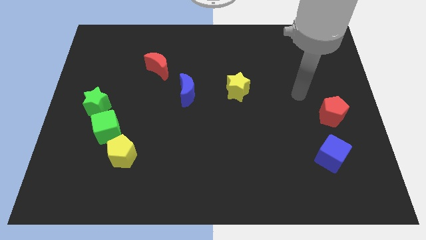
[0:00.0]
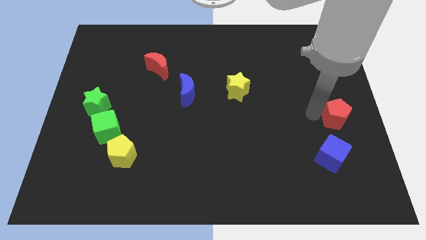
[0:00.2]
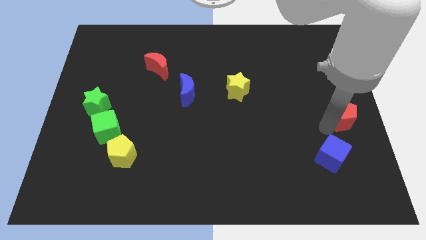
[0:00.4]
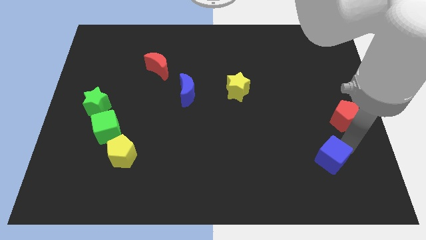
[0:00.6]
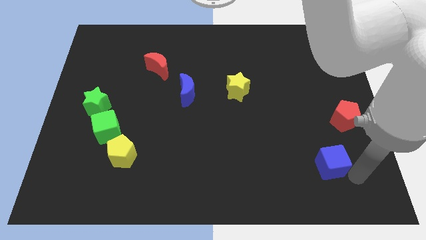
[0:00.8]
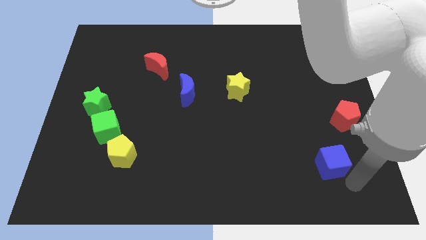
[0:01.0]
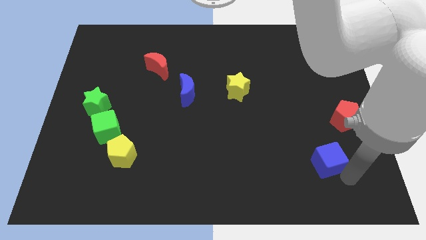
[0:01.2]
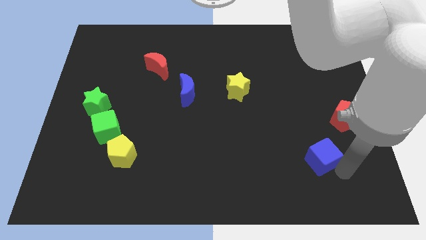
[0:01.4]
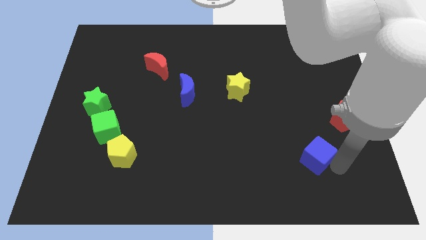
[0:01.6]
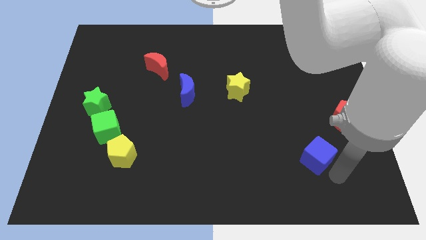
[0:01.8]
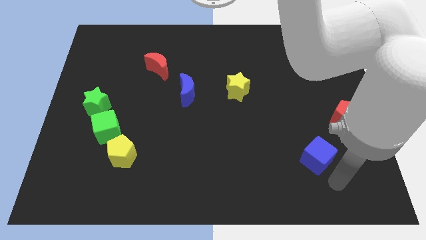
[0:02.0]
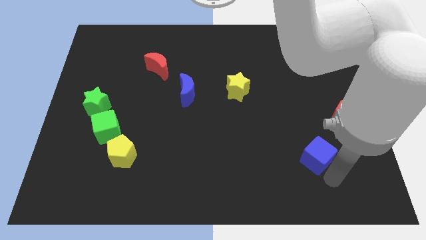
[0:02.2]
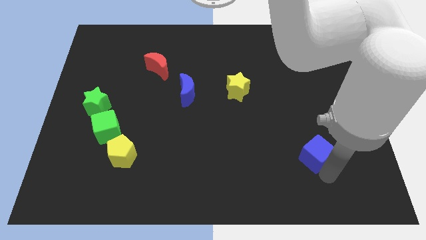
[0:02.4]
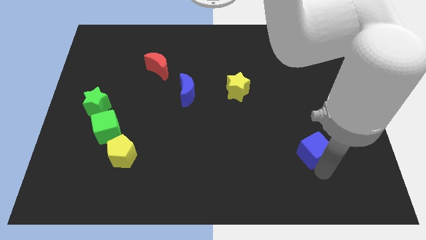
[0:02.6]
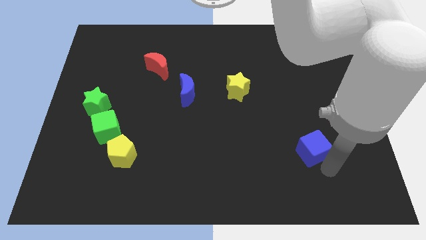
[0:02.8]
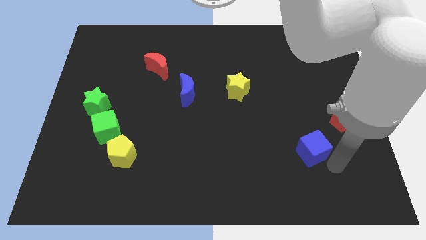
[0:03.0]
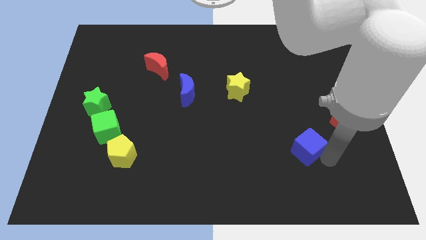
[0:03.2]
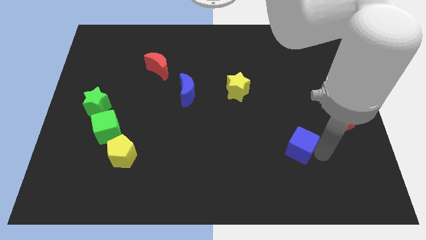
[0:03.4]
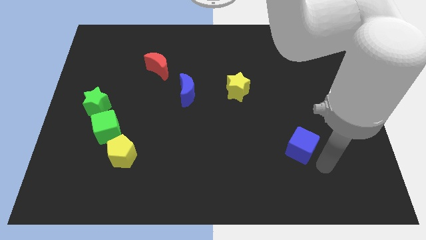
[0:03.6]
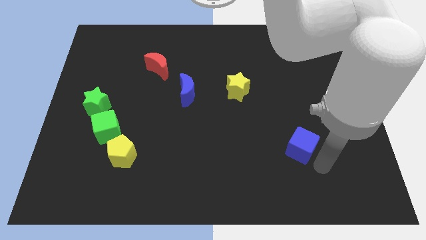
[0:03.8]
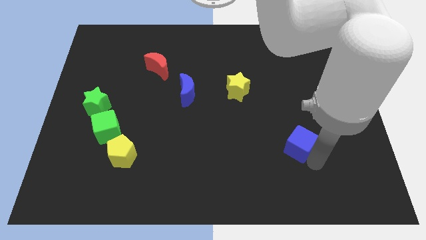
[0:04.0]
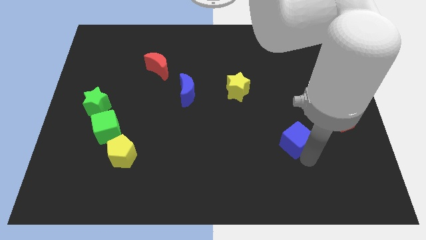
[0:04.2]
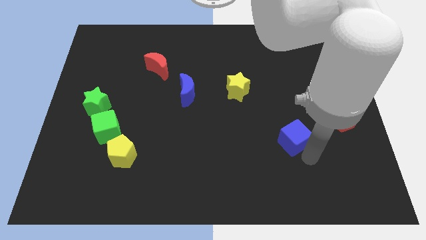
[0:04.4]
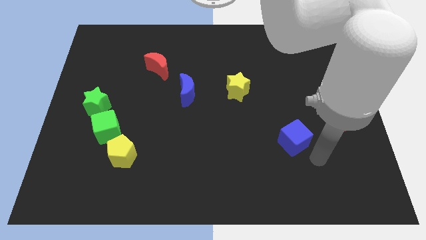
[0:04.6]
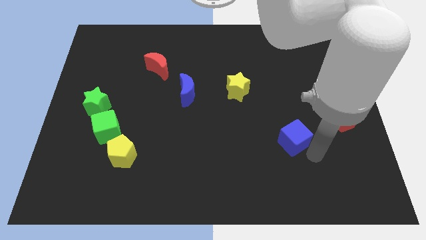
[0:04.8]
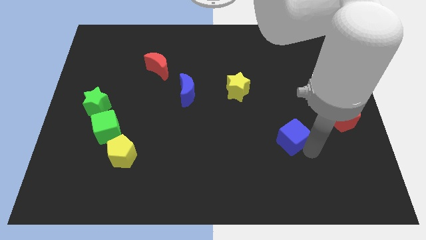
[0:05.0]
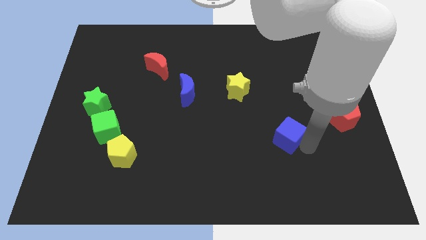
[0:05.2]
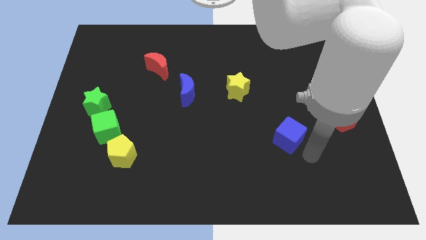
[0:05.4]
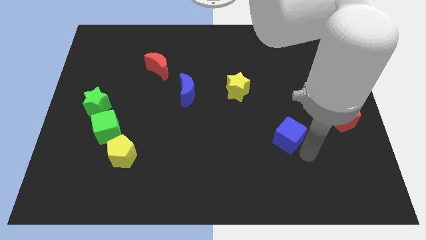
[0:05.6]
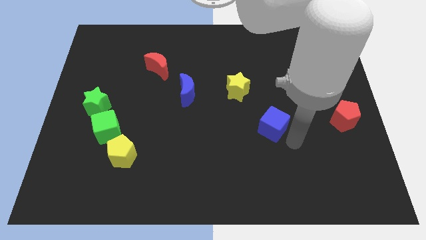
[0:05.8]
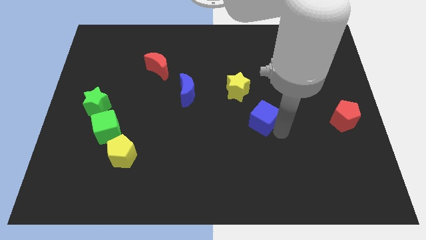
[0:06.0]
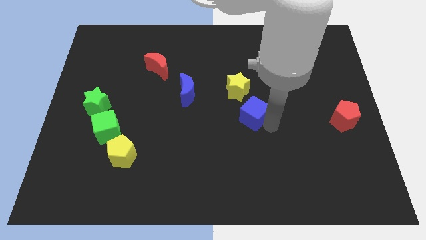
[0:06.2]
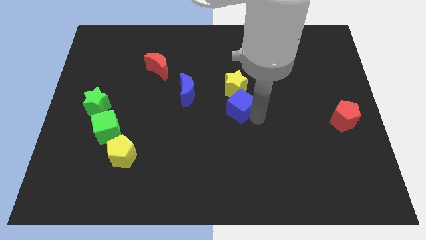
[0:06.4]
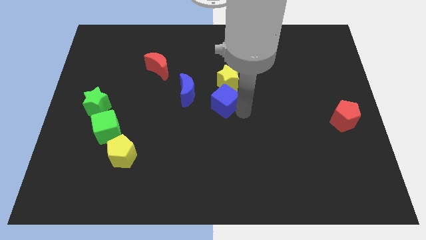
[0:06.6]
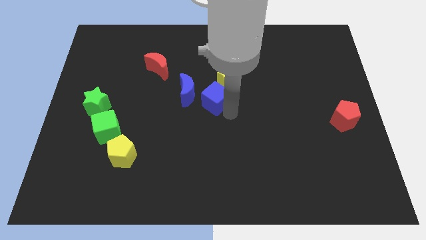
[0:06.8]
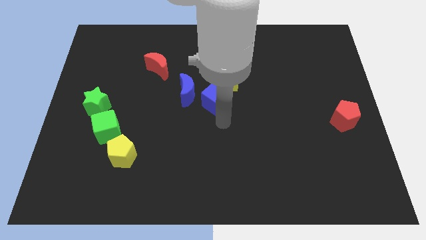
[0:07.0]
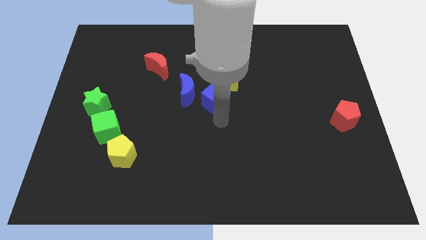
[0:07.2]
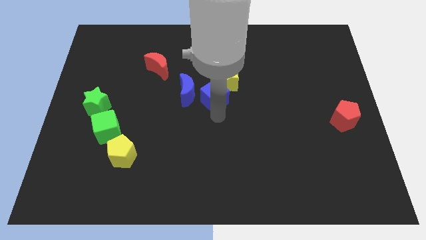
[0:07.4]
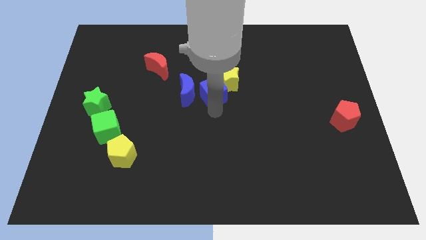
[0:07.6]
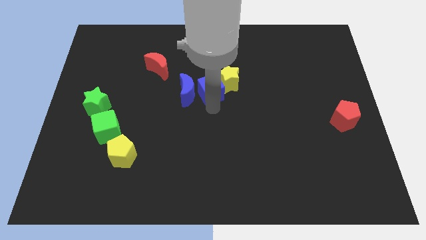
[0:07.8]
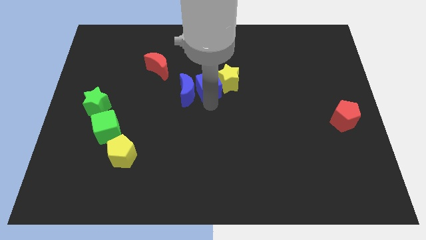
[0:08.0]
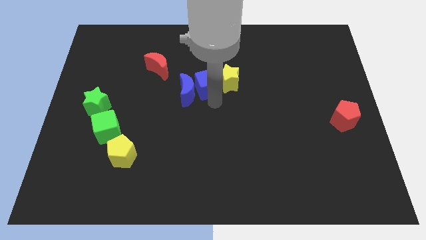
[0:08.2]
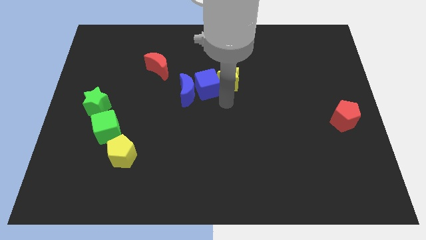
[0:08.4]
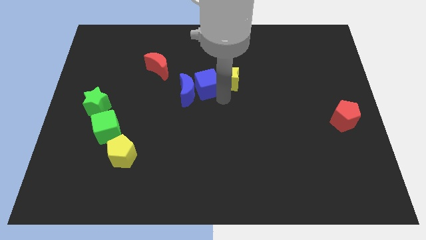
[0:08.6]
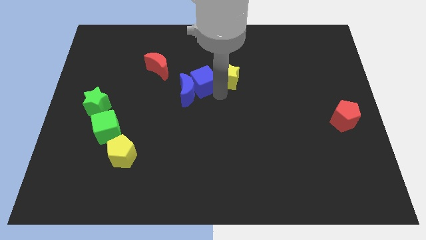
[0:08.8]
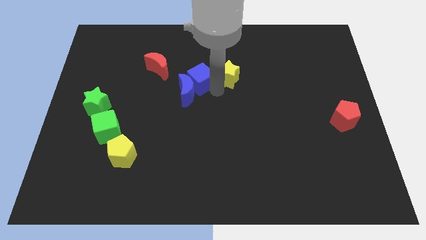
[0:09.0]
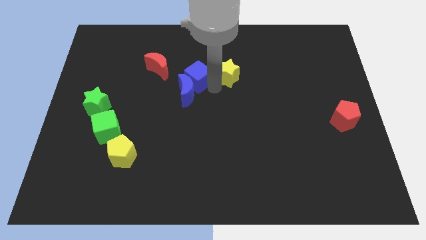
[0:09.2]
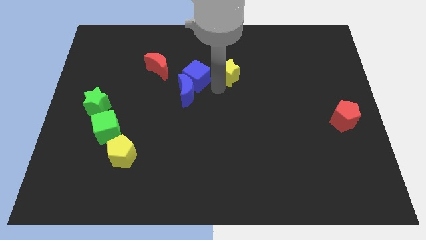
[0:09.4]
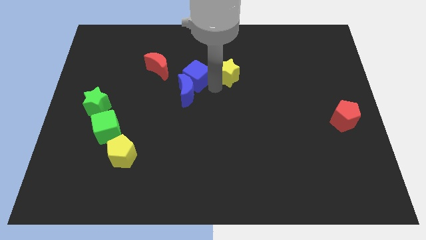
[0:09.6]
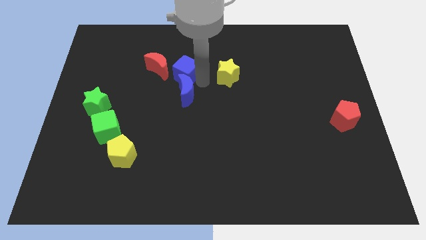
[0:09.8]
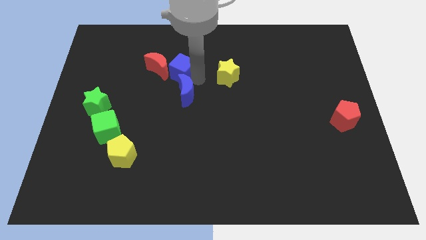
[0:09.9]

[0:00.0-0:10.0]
put the blue cube close to the red moon

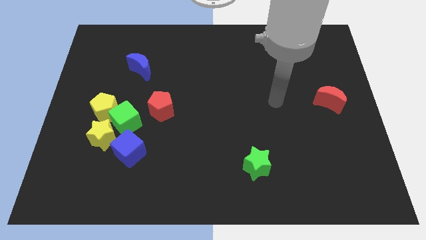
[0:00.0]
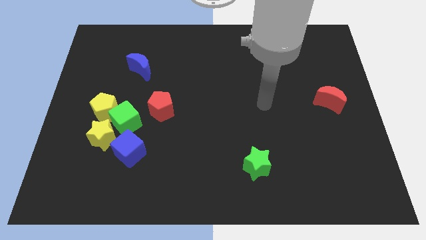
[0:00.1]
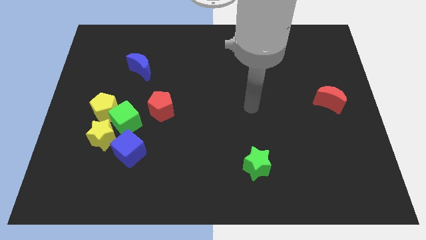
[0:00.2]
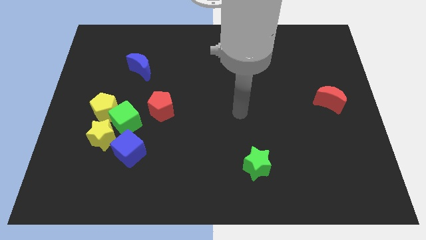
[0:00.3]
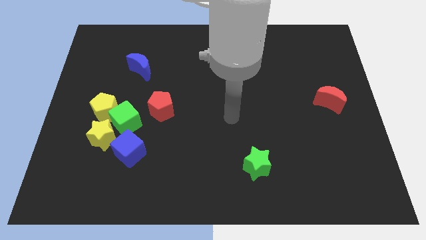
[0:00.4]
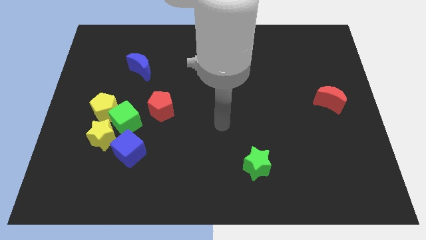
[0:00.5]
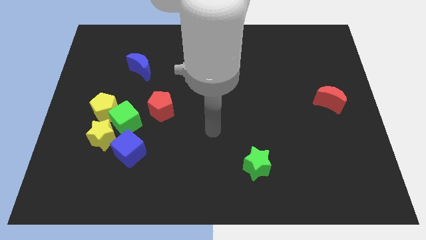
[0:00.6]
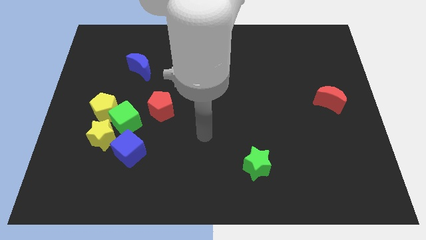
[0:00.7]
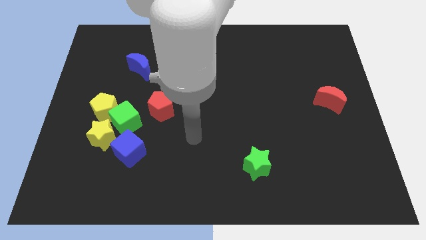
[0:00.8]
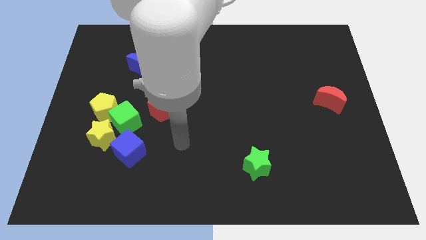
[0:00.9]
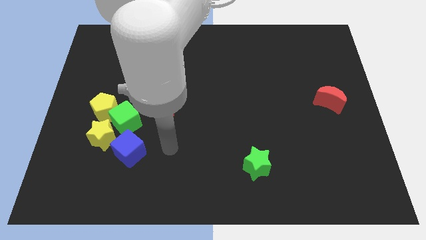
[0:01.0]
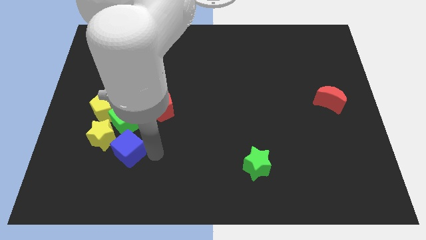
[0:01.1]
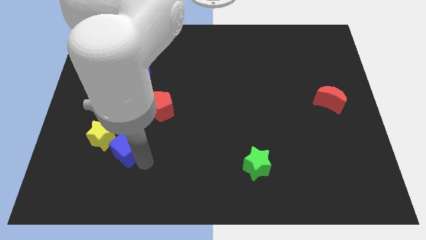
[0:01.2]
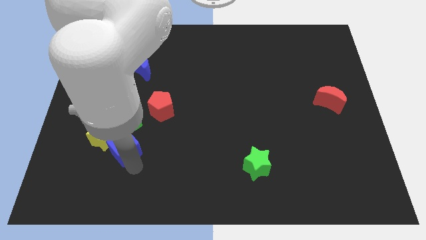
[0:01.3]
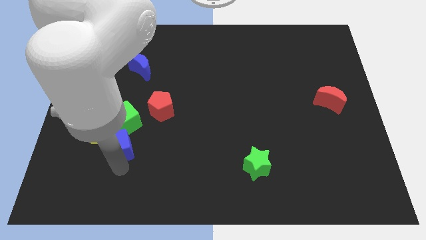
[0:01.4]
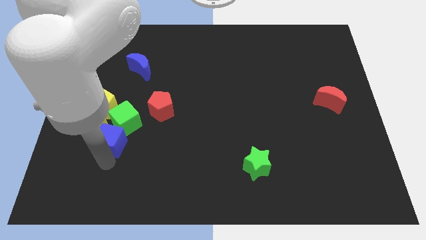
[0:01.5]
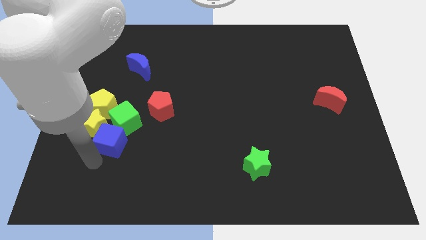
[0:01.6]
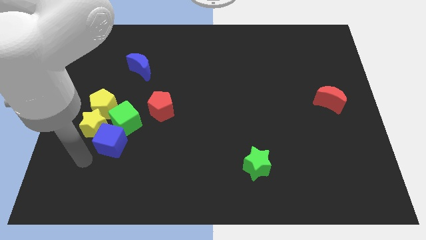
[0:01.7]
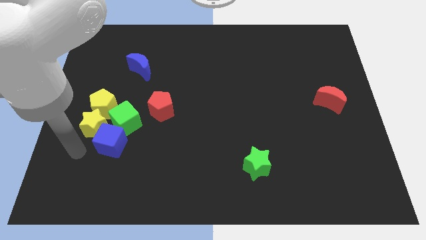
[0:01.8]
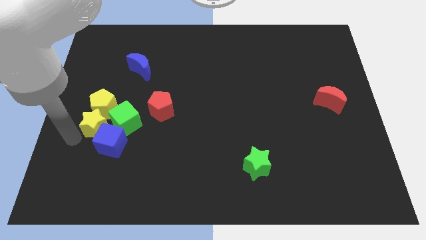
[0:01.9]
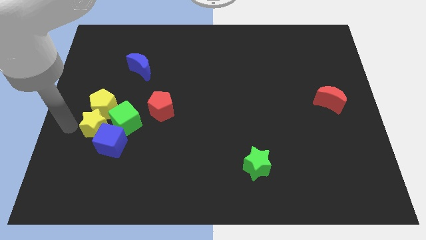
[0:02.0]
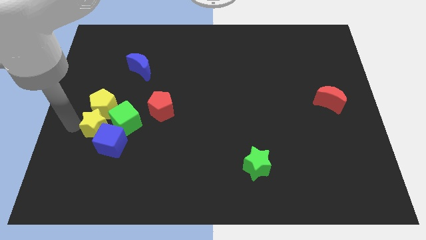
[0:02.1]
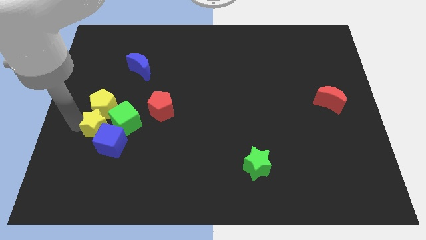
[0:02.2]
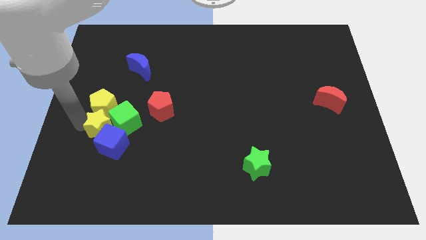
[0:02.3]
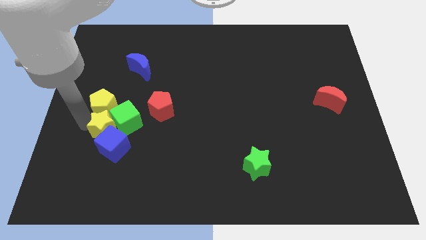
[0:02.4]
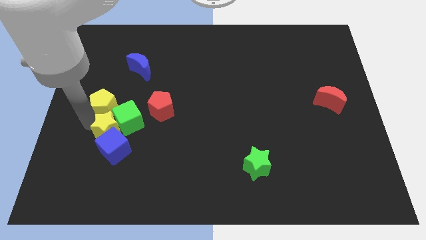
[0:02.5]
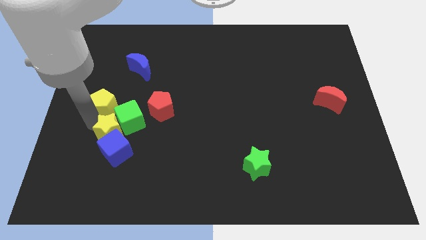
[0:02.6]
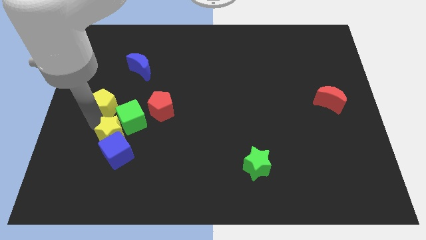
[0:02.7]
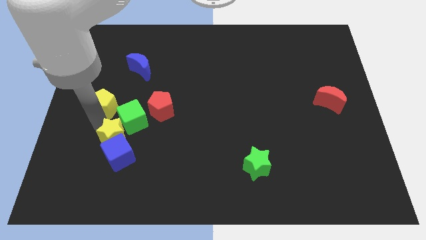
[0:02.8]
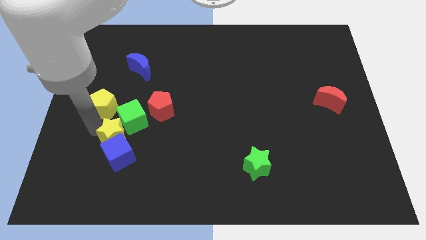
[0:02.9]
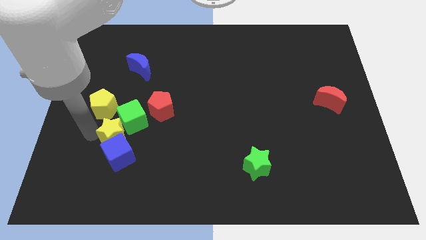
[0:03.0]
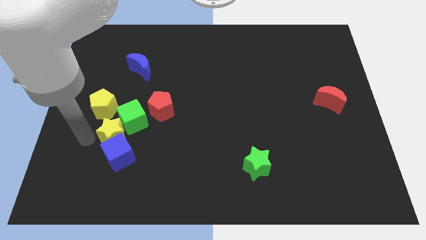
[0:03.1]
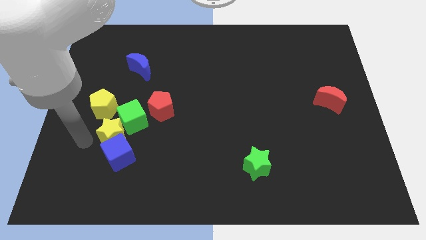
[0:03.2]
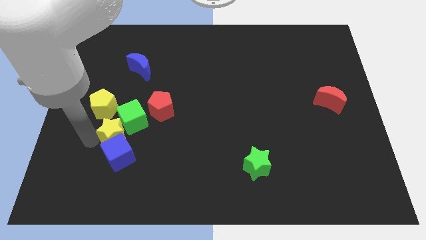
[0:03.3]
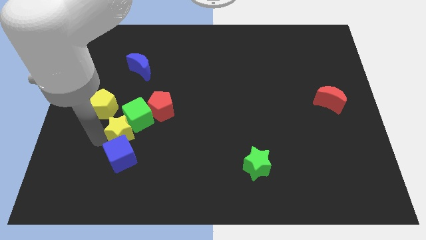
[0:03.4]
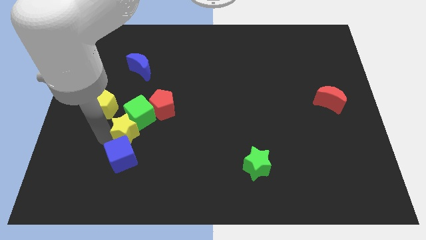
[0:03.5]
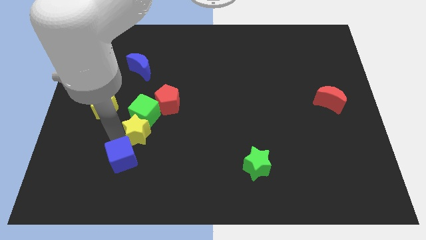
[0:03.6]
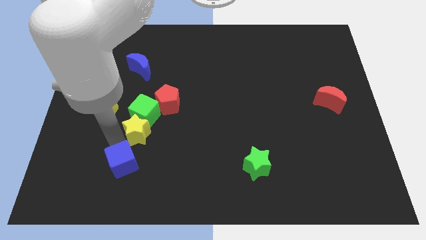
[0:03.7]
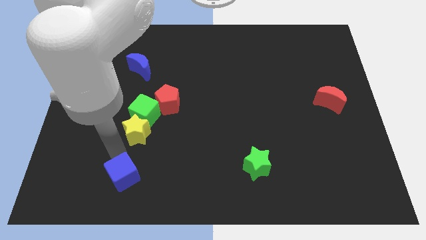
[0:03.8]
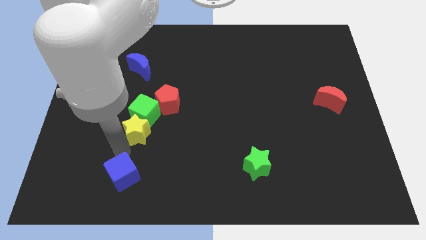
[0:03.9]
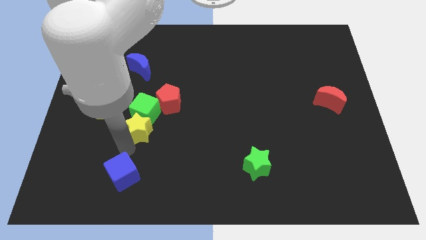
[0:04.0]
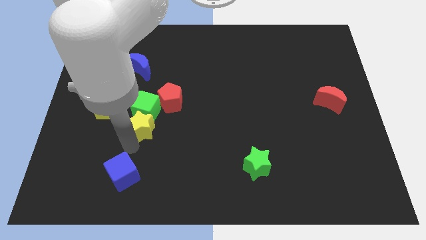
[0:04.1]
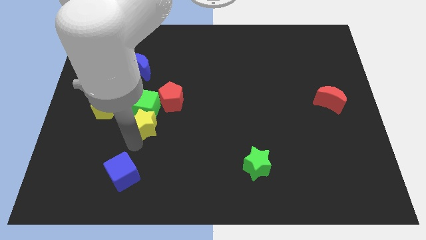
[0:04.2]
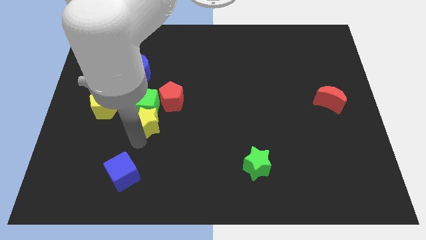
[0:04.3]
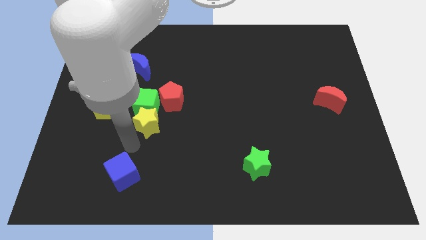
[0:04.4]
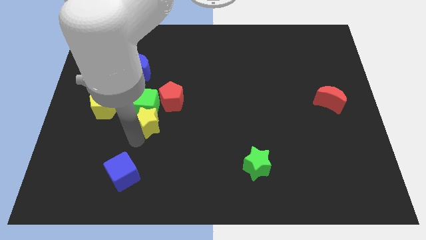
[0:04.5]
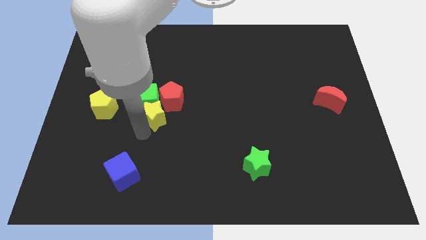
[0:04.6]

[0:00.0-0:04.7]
push the yellow star next to the red pentagon
